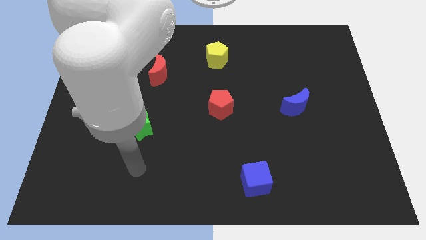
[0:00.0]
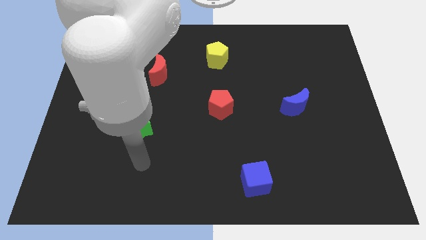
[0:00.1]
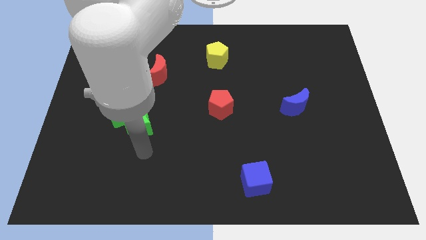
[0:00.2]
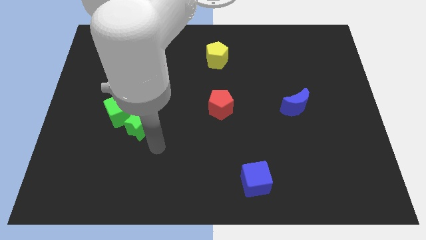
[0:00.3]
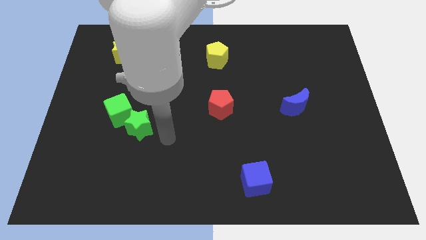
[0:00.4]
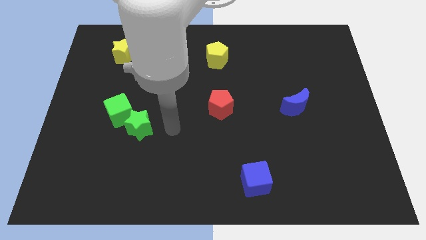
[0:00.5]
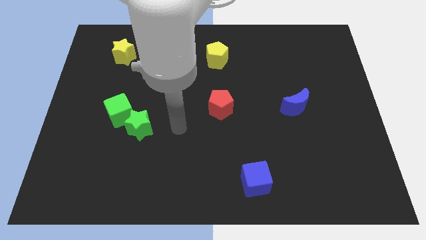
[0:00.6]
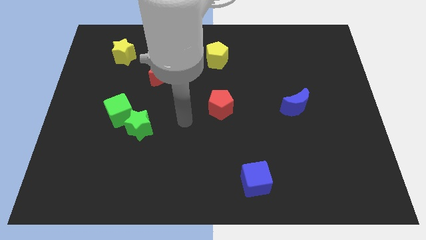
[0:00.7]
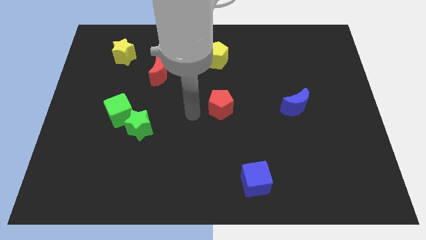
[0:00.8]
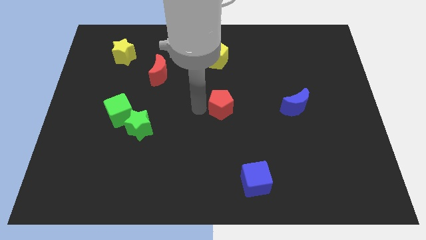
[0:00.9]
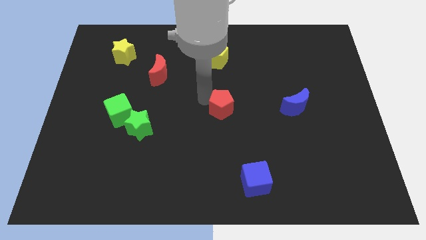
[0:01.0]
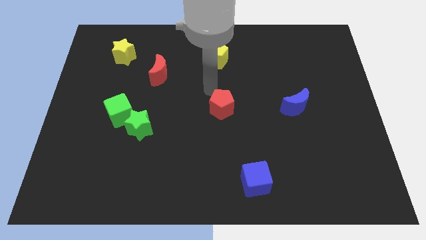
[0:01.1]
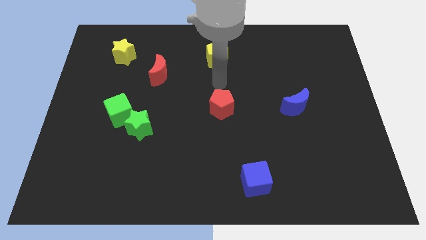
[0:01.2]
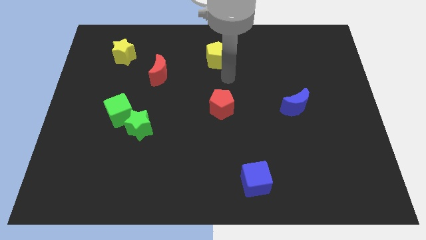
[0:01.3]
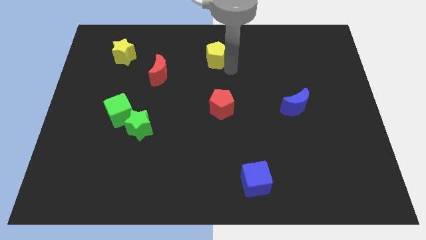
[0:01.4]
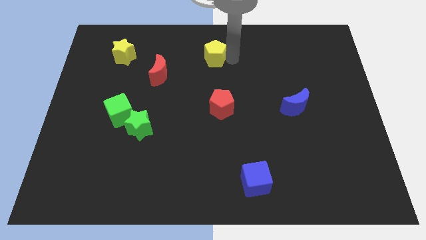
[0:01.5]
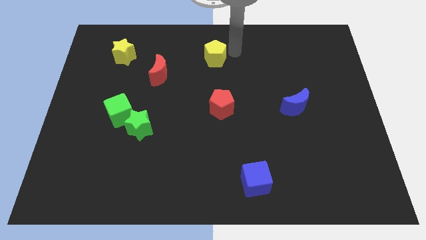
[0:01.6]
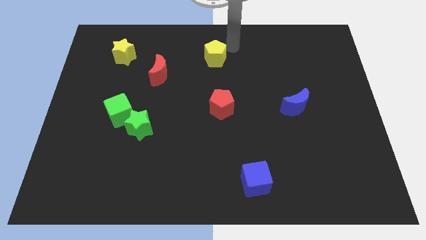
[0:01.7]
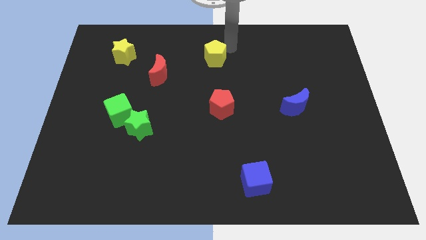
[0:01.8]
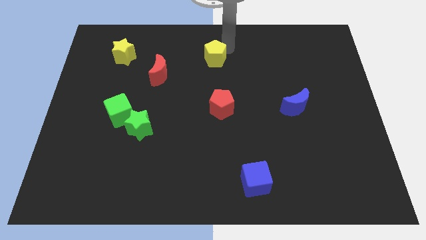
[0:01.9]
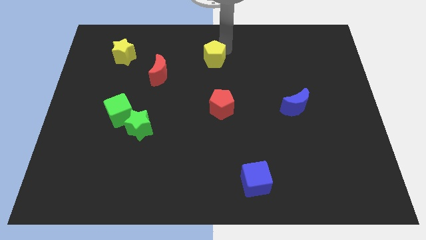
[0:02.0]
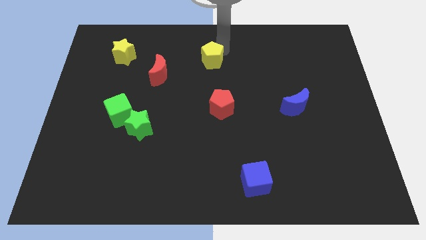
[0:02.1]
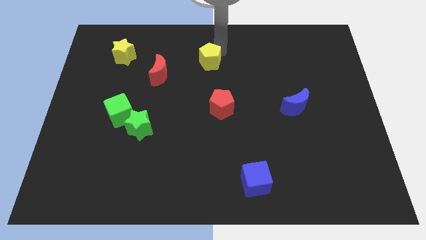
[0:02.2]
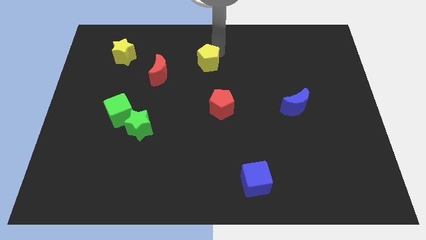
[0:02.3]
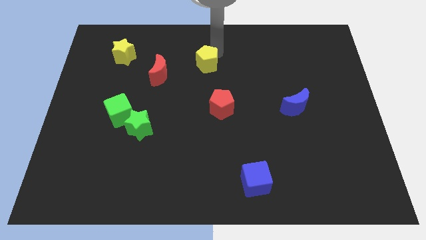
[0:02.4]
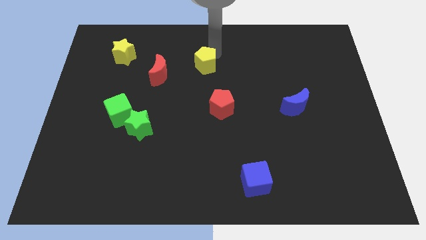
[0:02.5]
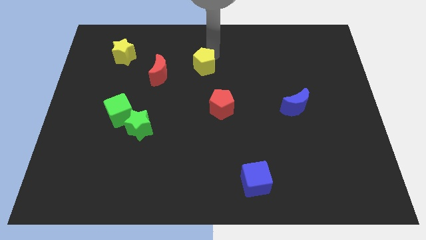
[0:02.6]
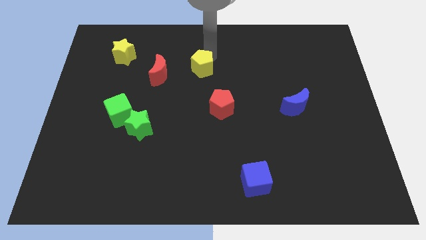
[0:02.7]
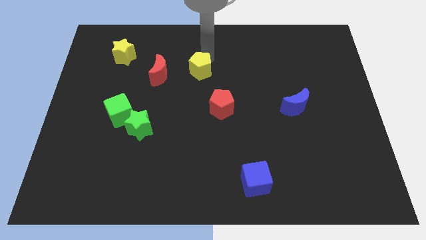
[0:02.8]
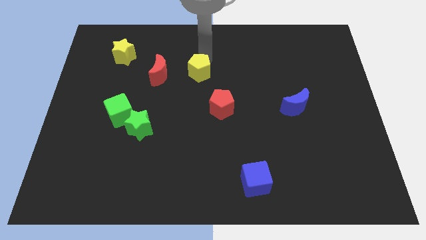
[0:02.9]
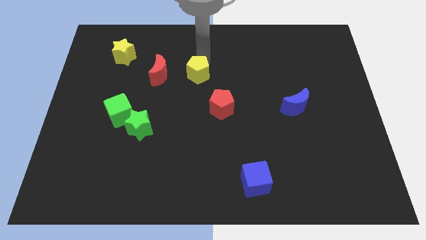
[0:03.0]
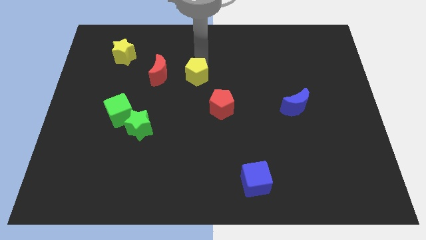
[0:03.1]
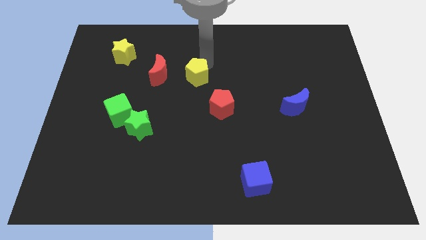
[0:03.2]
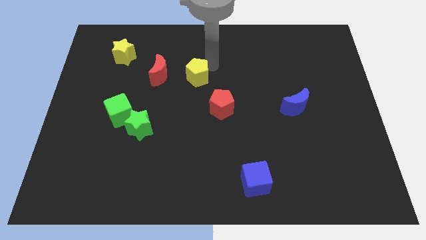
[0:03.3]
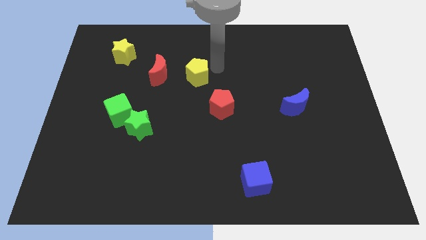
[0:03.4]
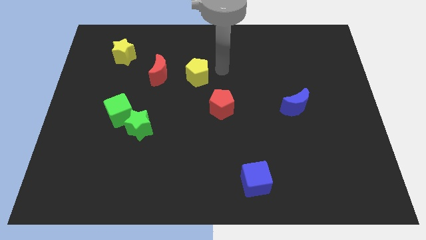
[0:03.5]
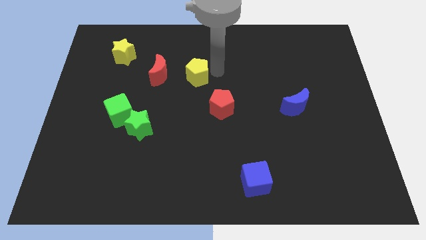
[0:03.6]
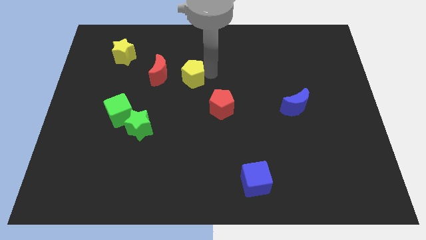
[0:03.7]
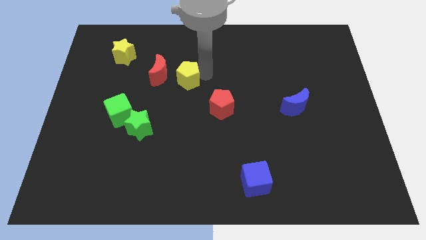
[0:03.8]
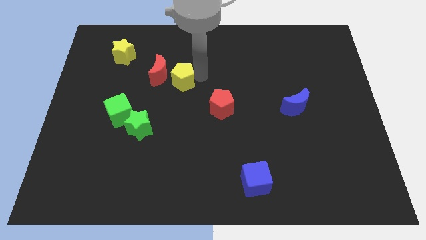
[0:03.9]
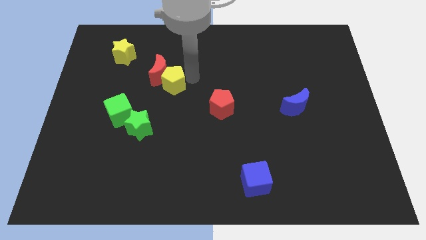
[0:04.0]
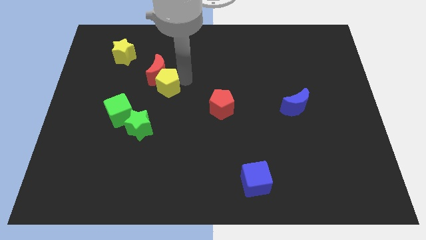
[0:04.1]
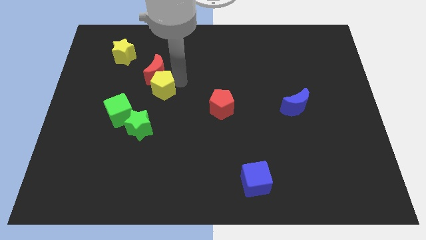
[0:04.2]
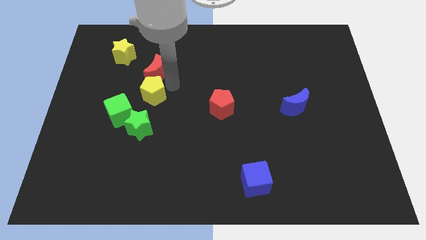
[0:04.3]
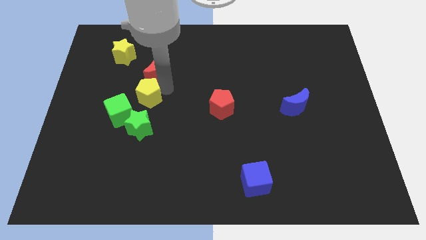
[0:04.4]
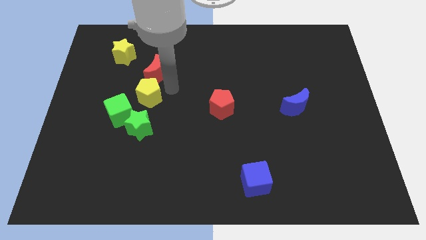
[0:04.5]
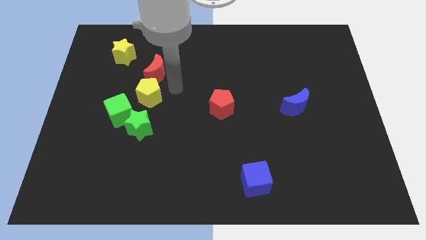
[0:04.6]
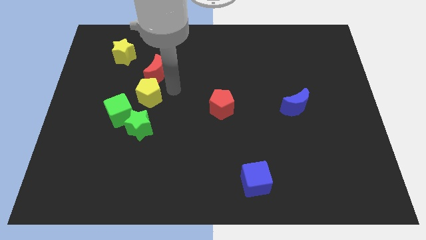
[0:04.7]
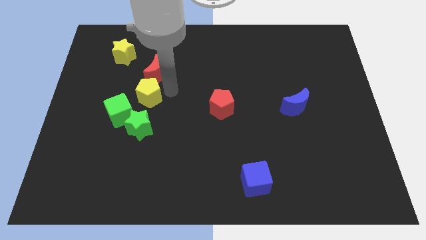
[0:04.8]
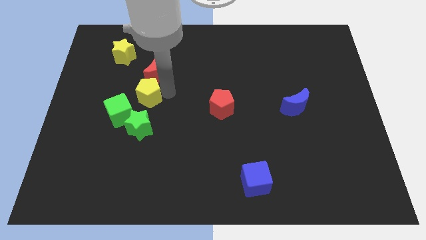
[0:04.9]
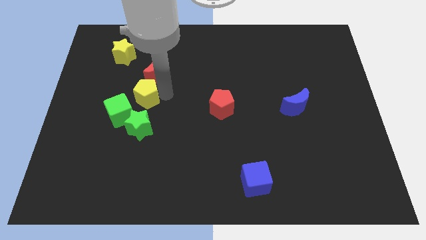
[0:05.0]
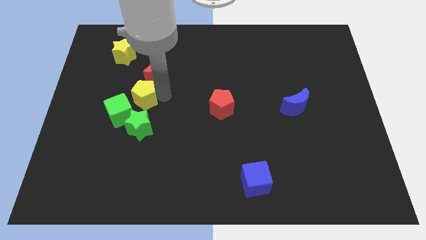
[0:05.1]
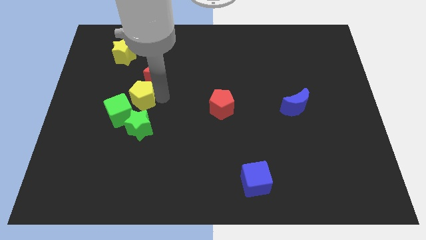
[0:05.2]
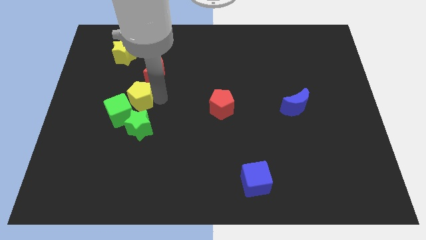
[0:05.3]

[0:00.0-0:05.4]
move the yellow pentagon close to the green cube

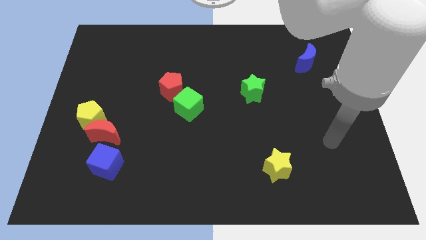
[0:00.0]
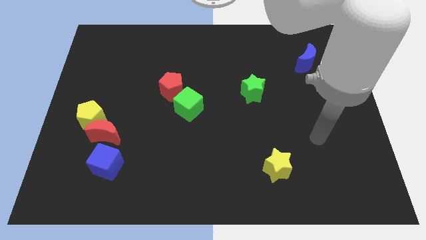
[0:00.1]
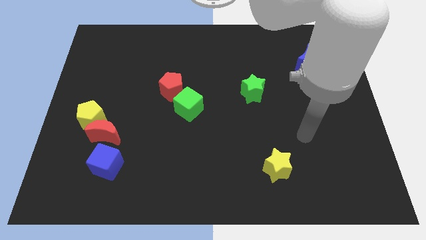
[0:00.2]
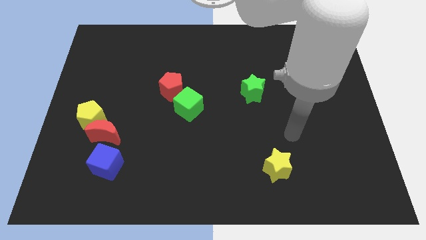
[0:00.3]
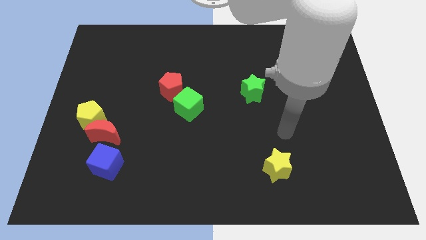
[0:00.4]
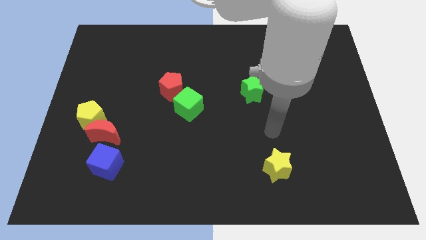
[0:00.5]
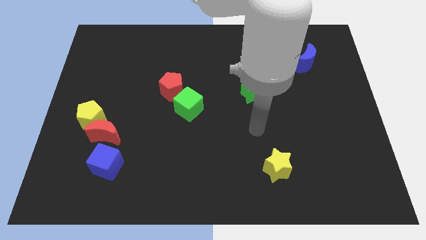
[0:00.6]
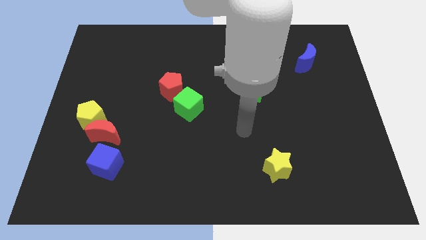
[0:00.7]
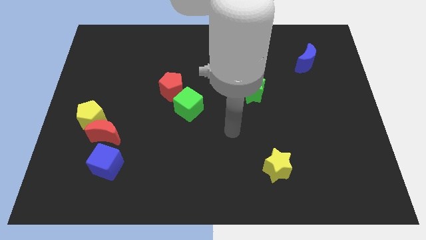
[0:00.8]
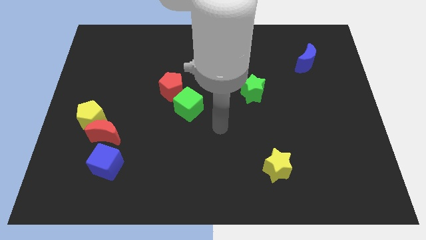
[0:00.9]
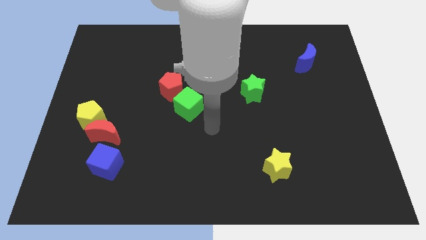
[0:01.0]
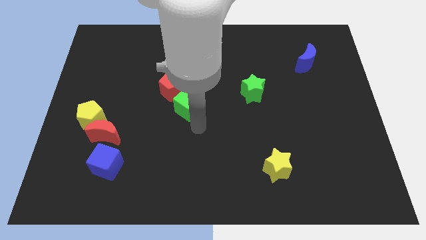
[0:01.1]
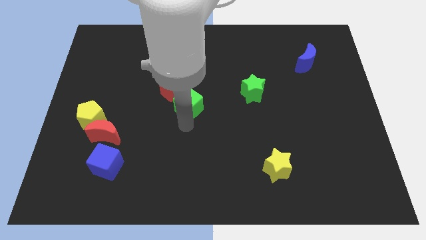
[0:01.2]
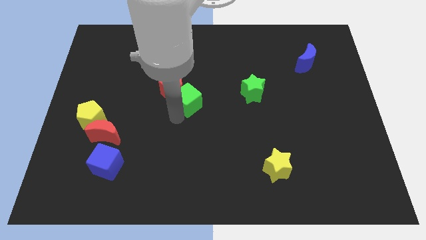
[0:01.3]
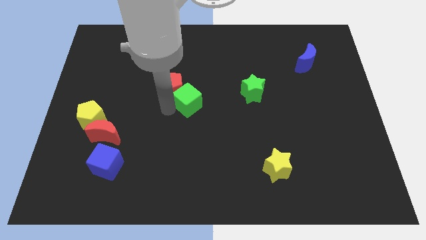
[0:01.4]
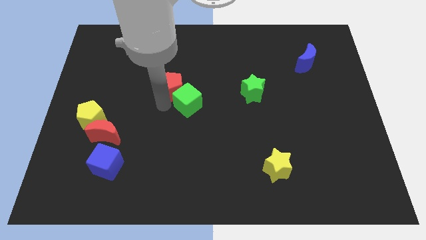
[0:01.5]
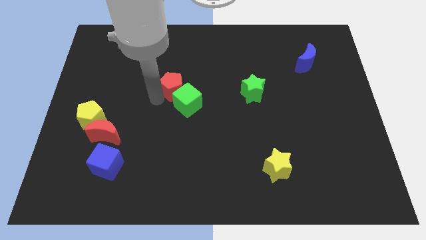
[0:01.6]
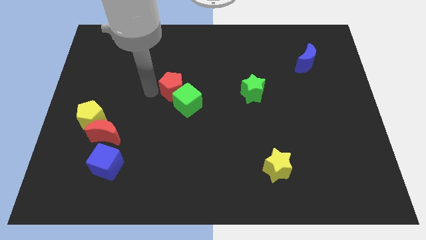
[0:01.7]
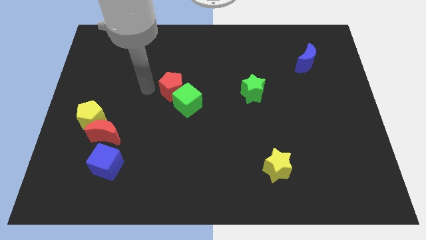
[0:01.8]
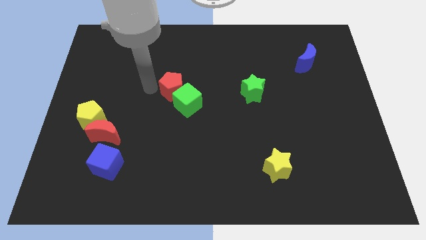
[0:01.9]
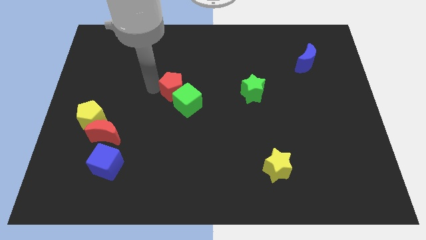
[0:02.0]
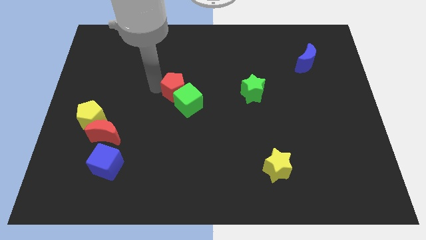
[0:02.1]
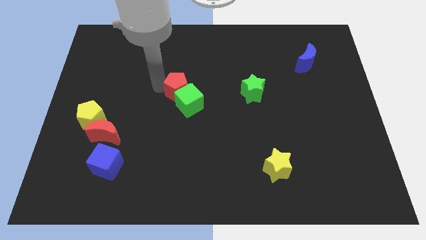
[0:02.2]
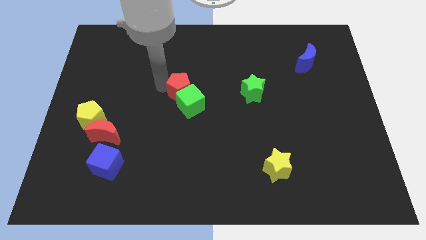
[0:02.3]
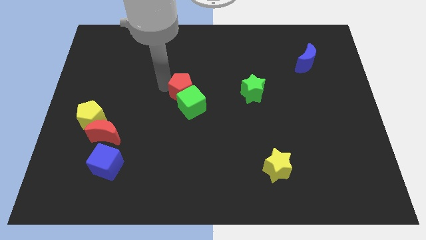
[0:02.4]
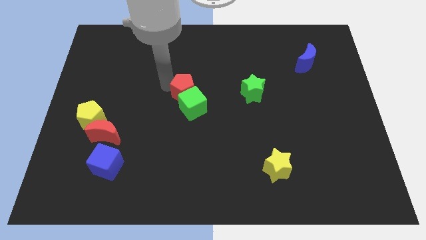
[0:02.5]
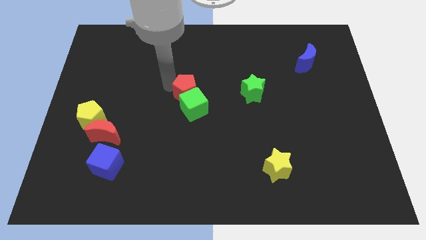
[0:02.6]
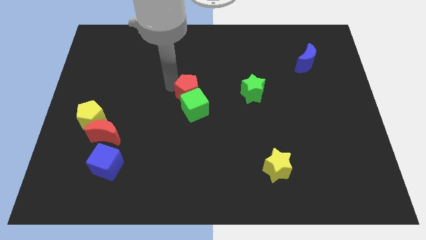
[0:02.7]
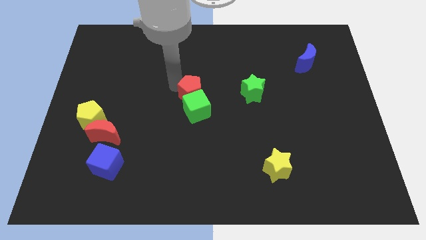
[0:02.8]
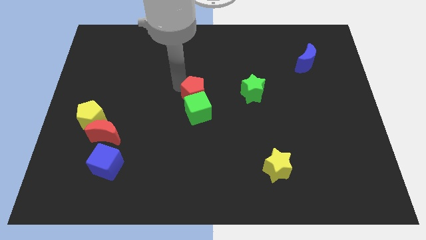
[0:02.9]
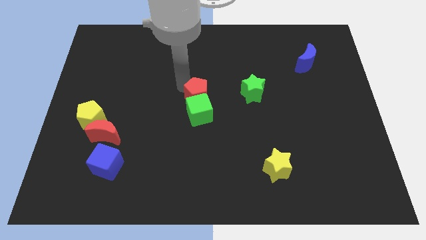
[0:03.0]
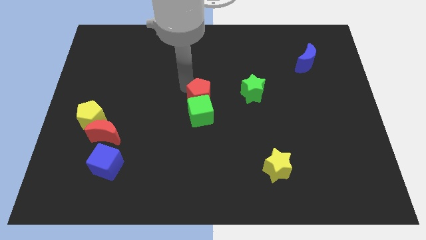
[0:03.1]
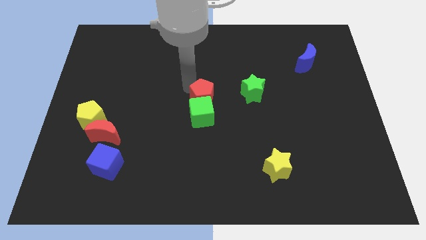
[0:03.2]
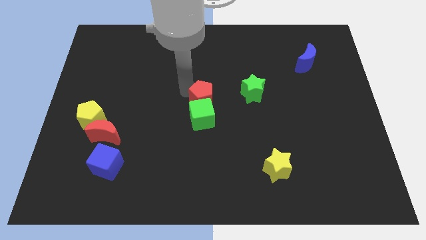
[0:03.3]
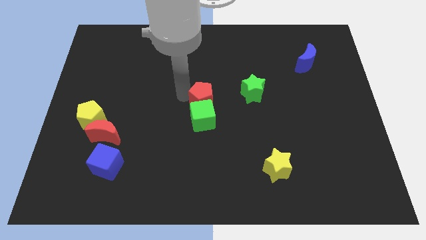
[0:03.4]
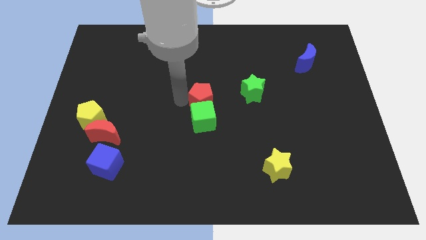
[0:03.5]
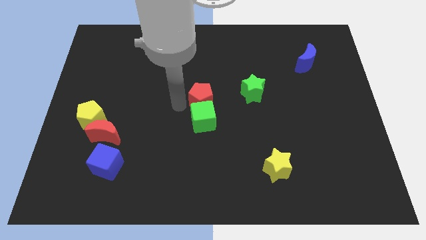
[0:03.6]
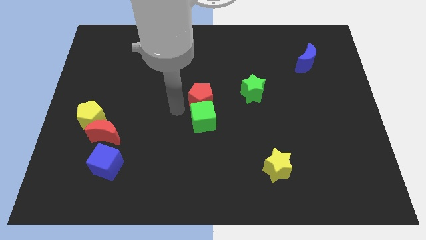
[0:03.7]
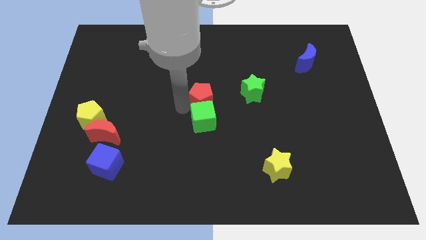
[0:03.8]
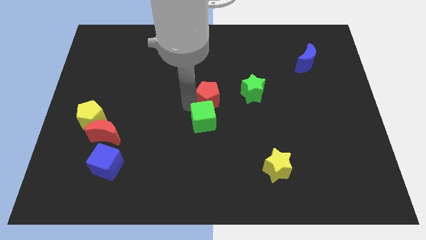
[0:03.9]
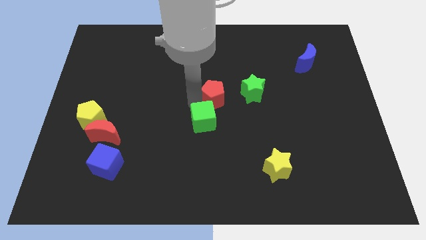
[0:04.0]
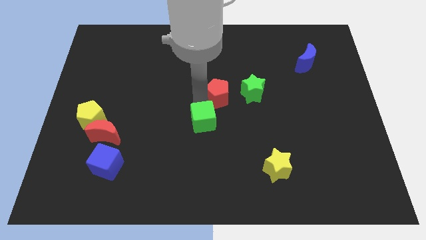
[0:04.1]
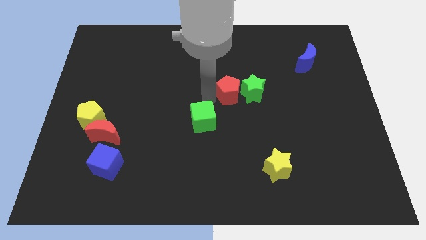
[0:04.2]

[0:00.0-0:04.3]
move the red pentagon to the green star
